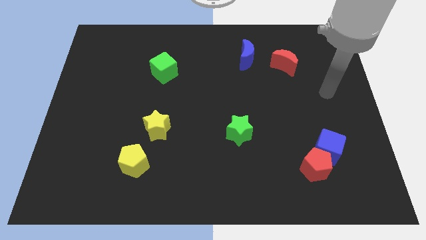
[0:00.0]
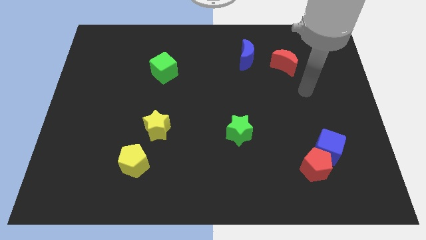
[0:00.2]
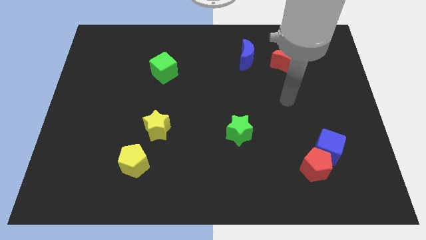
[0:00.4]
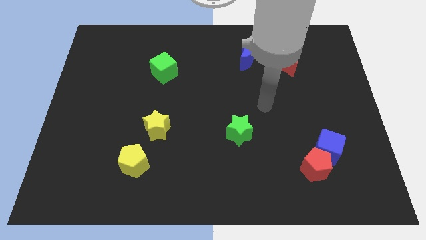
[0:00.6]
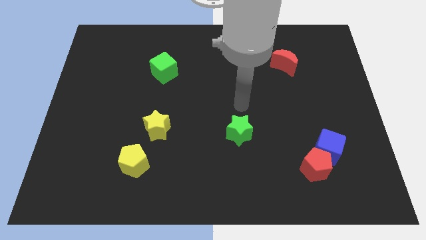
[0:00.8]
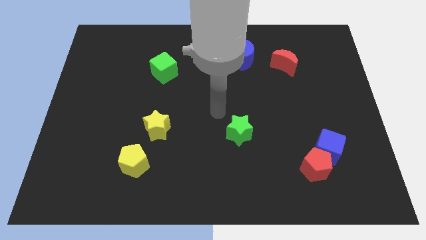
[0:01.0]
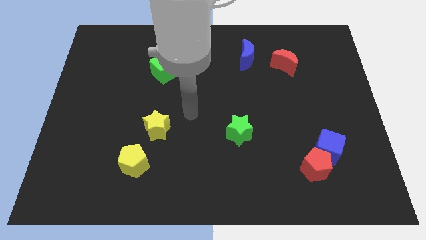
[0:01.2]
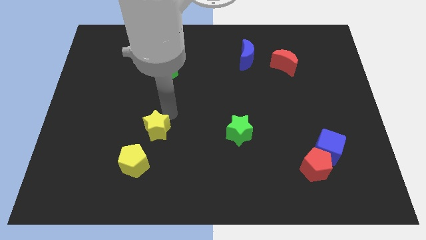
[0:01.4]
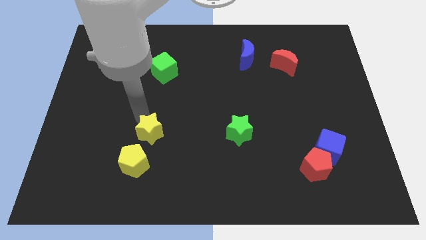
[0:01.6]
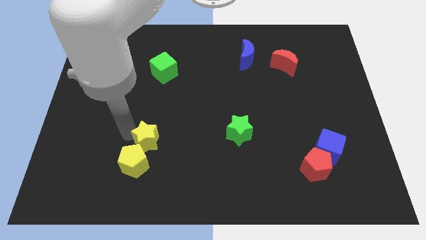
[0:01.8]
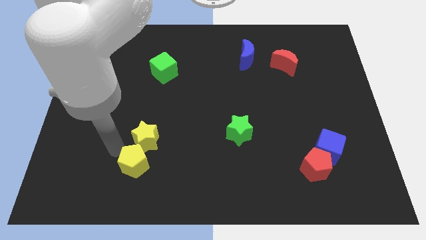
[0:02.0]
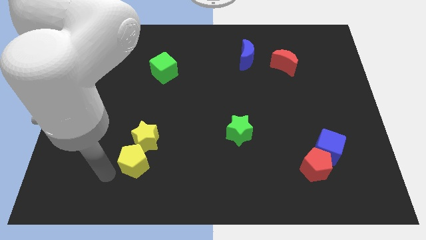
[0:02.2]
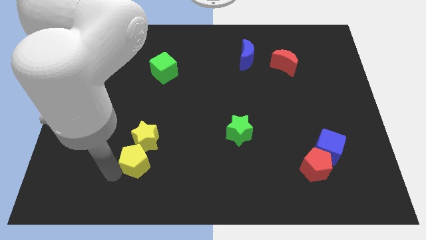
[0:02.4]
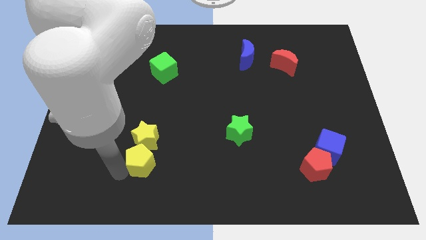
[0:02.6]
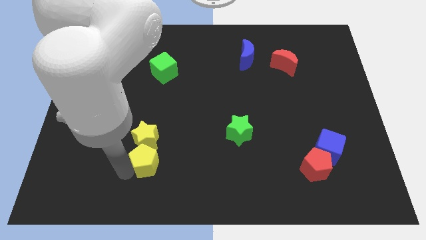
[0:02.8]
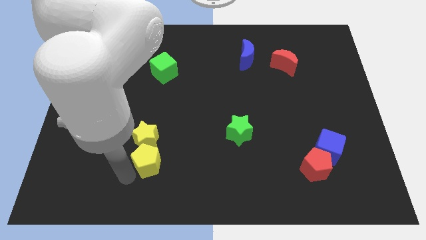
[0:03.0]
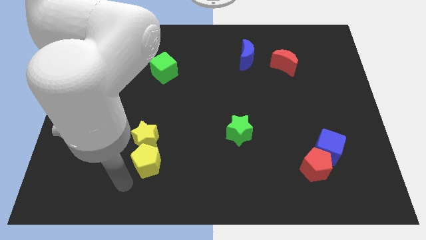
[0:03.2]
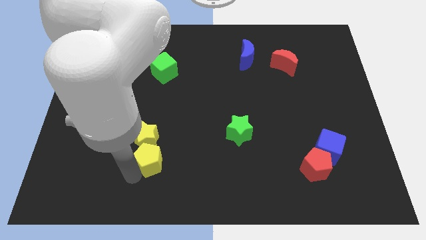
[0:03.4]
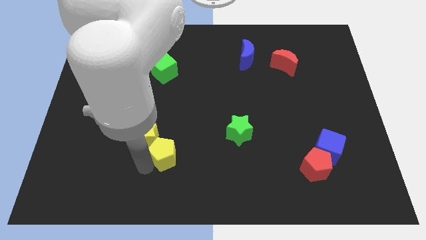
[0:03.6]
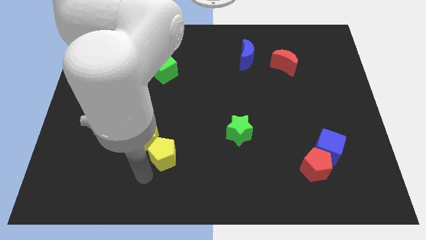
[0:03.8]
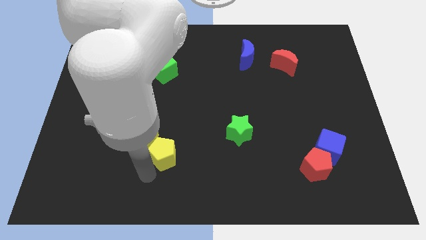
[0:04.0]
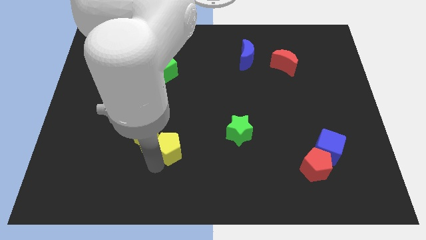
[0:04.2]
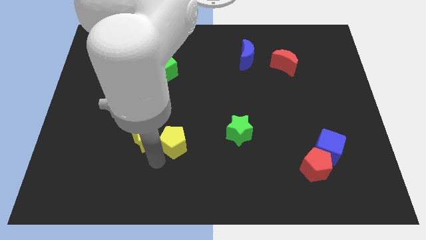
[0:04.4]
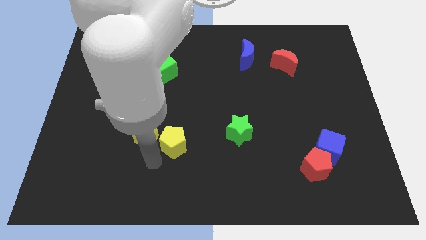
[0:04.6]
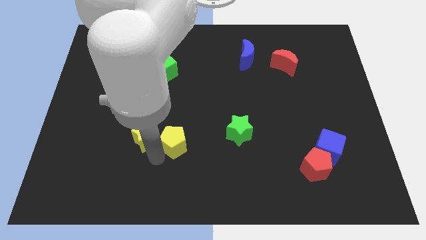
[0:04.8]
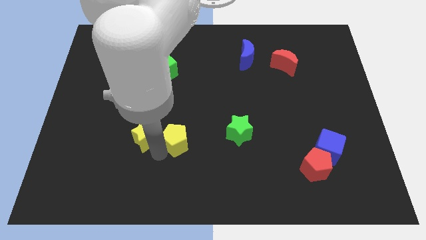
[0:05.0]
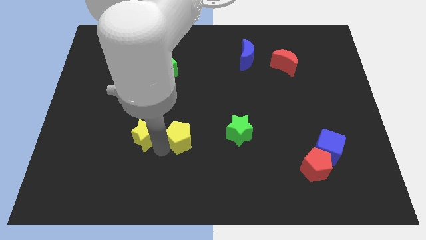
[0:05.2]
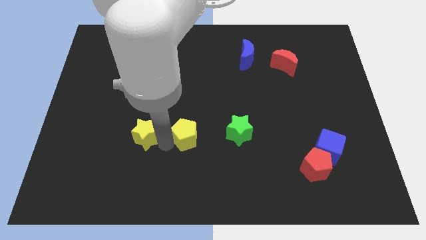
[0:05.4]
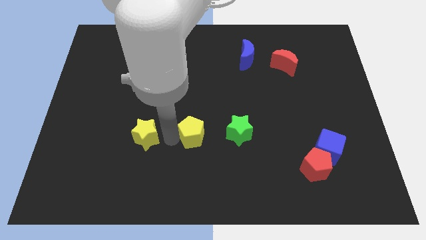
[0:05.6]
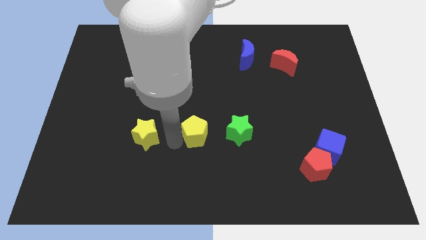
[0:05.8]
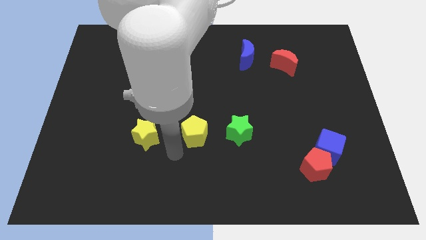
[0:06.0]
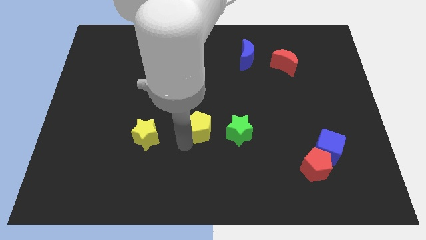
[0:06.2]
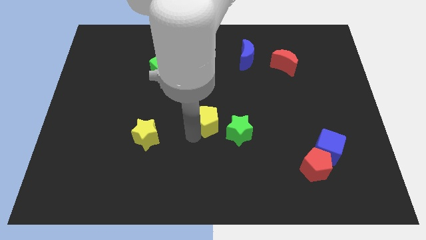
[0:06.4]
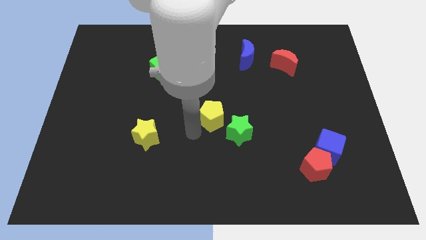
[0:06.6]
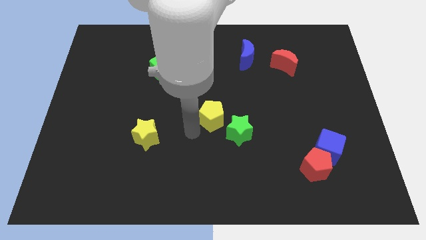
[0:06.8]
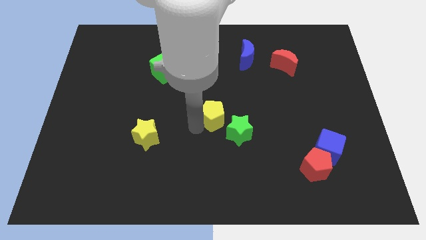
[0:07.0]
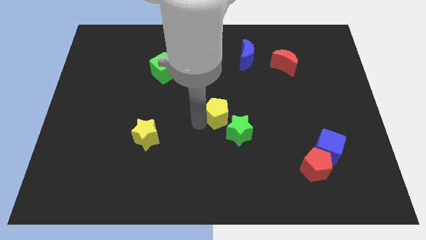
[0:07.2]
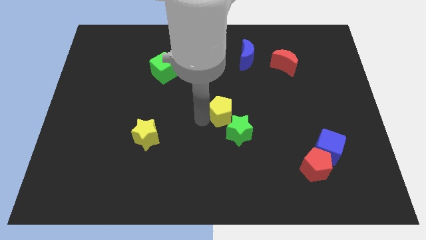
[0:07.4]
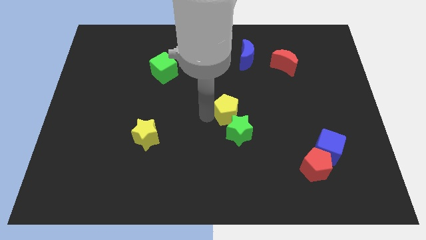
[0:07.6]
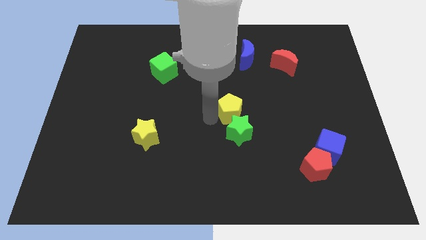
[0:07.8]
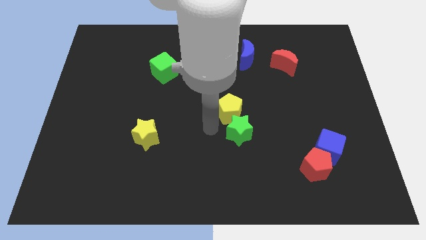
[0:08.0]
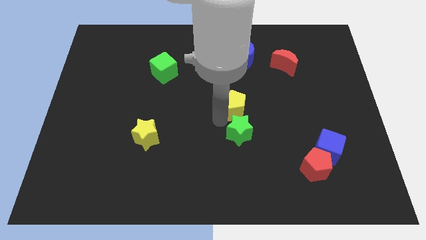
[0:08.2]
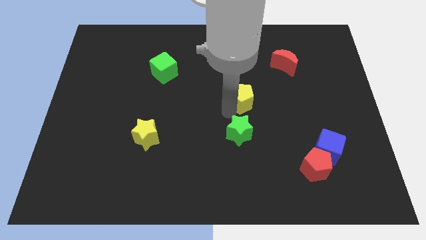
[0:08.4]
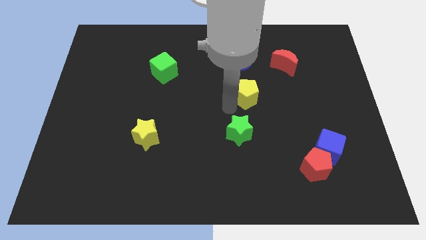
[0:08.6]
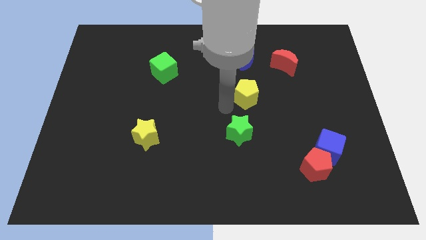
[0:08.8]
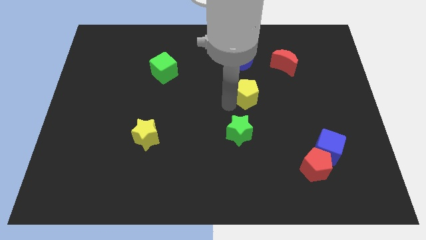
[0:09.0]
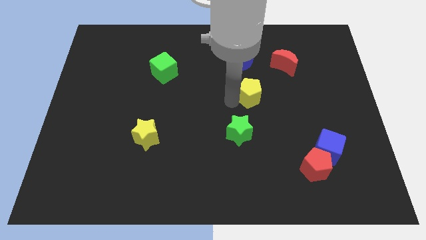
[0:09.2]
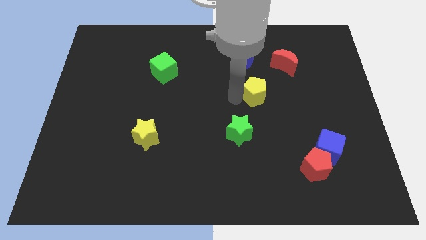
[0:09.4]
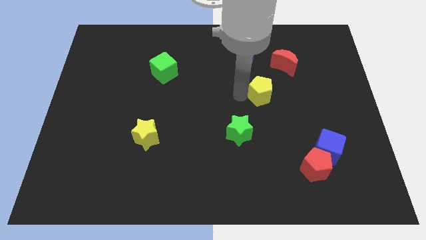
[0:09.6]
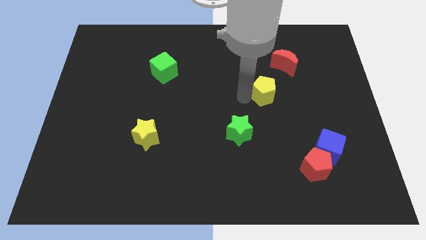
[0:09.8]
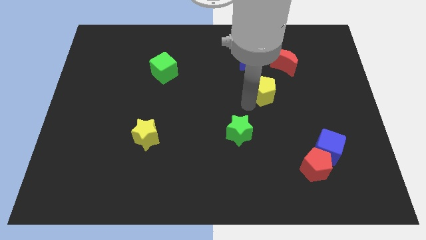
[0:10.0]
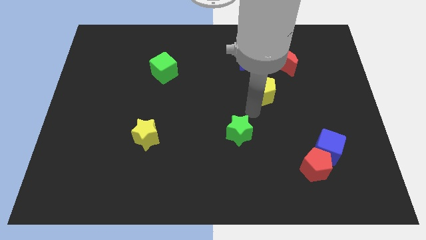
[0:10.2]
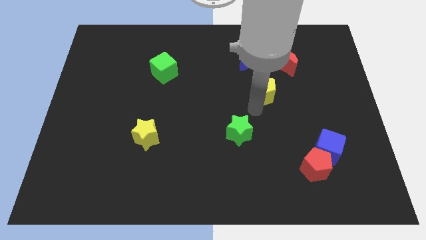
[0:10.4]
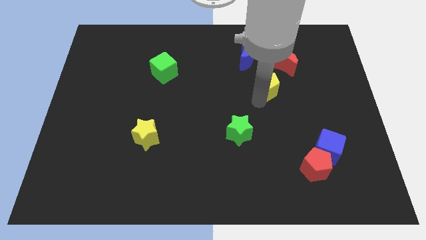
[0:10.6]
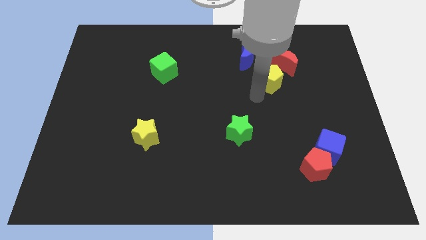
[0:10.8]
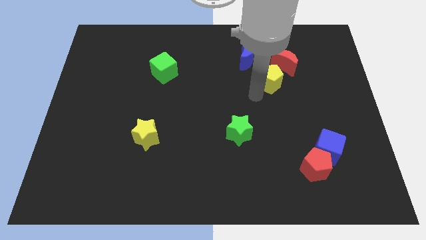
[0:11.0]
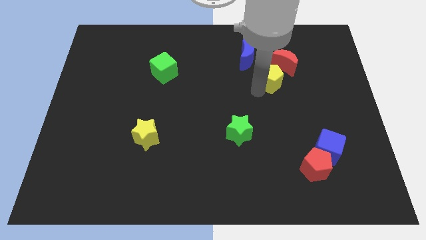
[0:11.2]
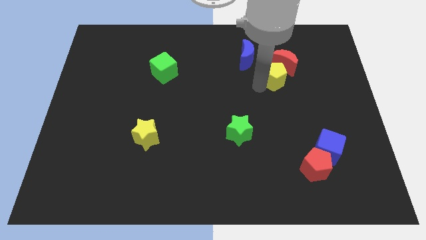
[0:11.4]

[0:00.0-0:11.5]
slide the yellow pentagon to the red moon

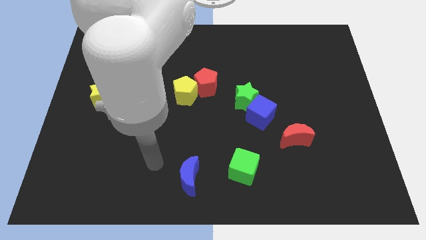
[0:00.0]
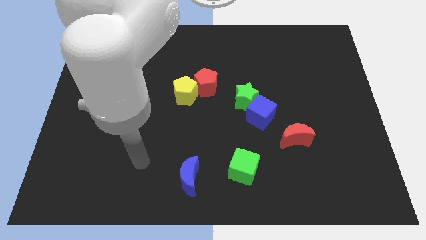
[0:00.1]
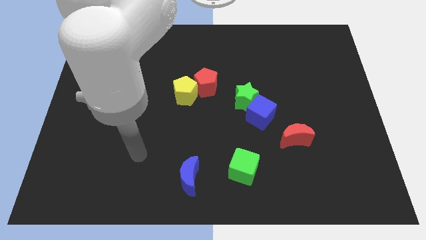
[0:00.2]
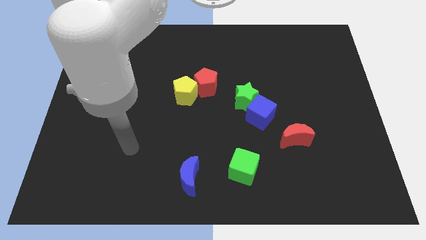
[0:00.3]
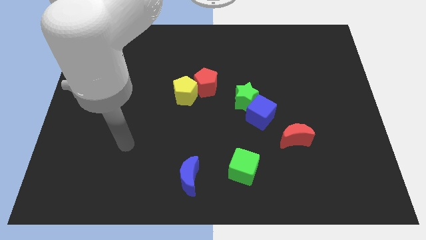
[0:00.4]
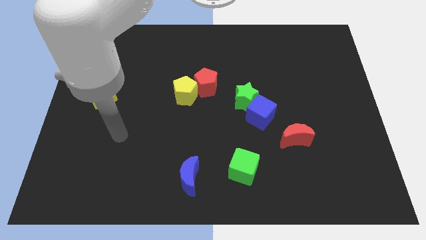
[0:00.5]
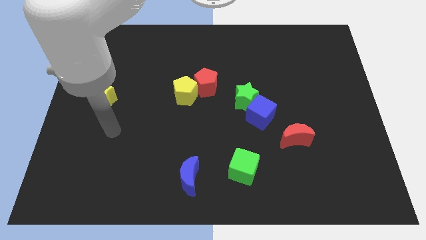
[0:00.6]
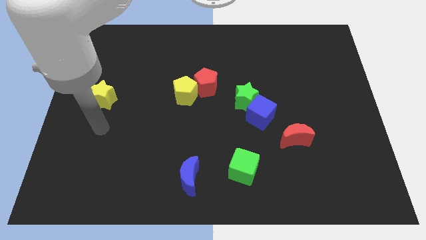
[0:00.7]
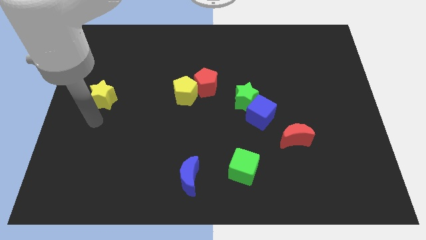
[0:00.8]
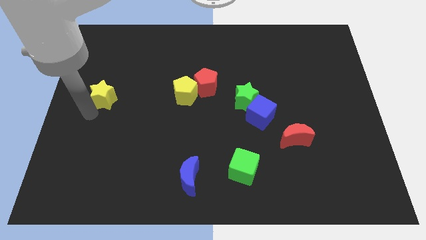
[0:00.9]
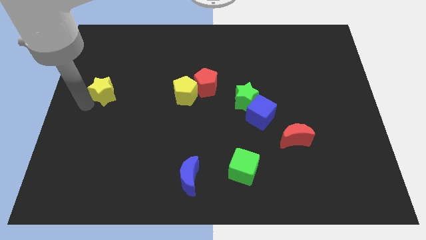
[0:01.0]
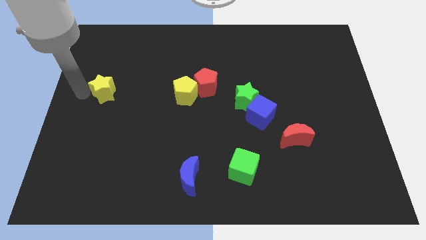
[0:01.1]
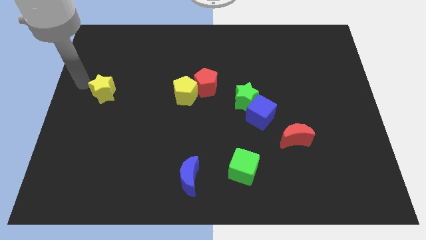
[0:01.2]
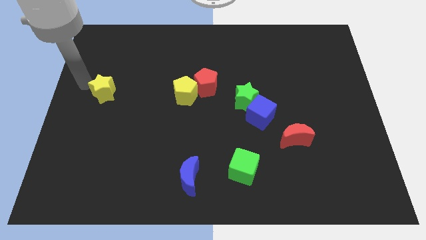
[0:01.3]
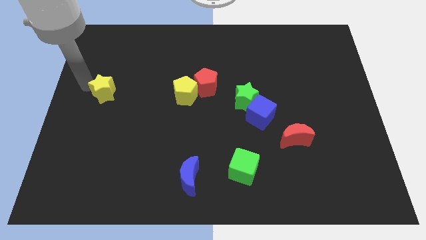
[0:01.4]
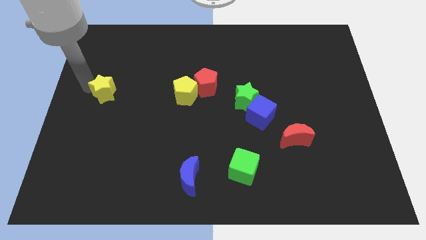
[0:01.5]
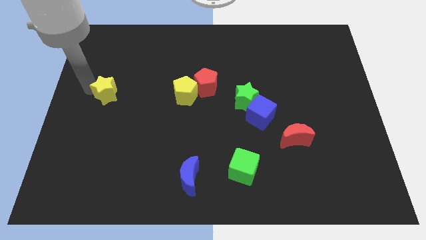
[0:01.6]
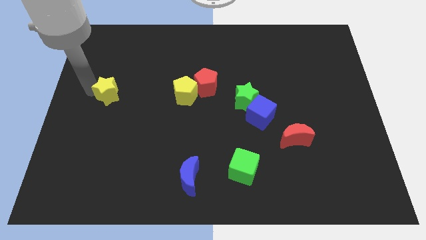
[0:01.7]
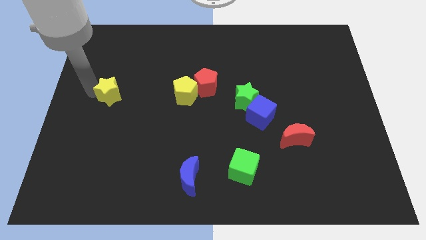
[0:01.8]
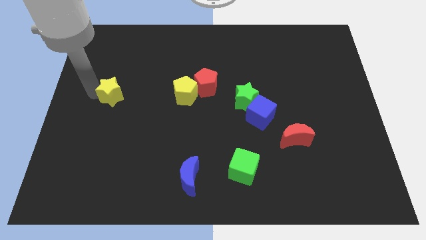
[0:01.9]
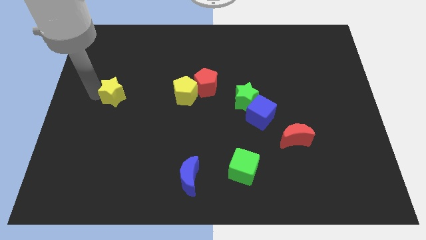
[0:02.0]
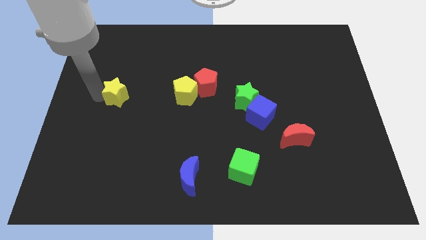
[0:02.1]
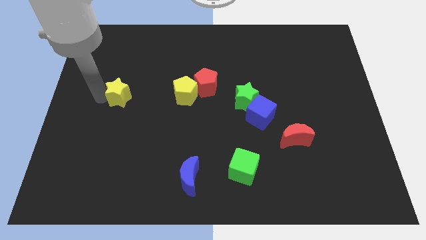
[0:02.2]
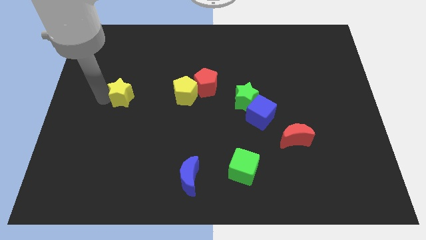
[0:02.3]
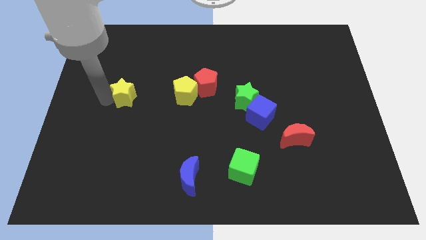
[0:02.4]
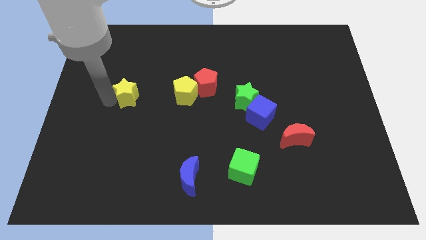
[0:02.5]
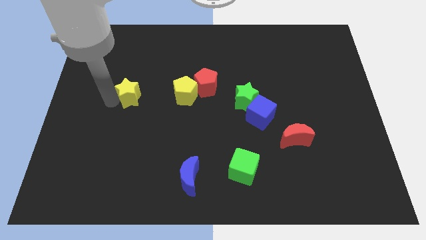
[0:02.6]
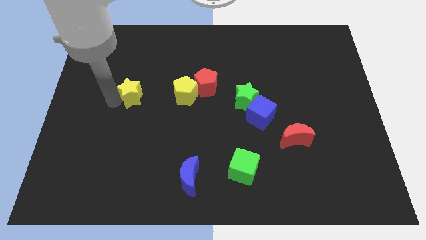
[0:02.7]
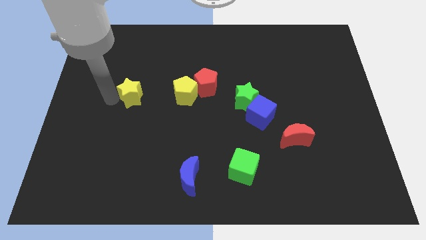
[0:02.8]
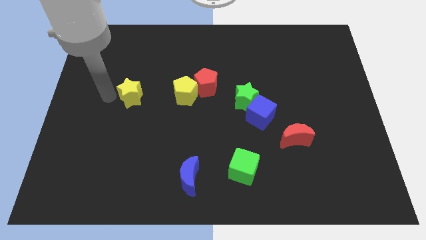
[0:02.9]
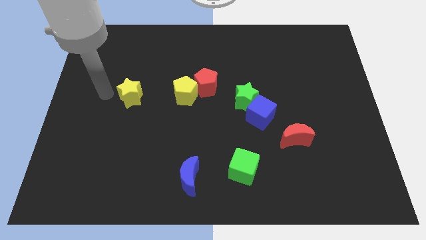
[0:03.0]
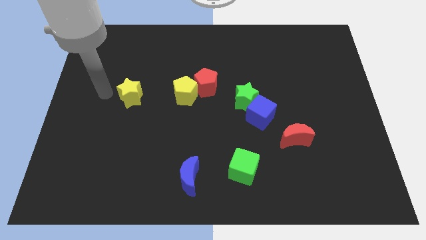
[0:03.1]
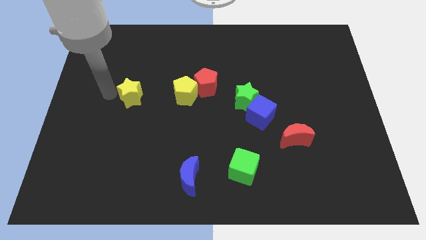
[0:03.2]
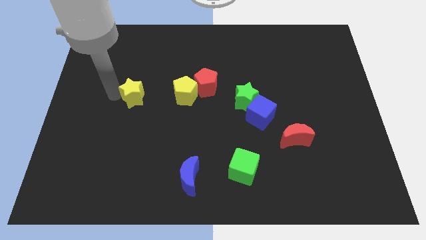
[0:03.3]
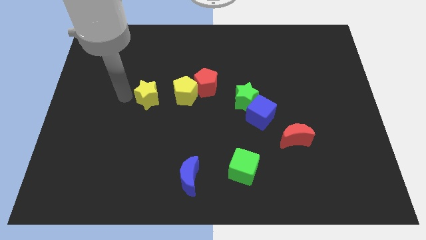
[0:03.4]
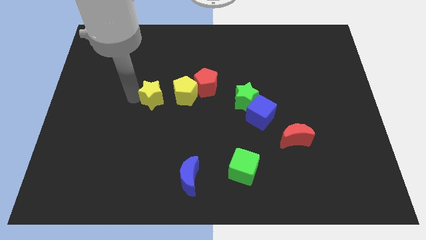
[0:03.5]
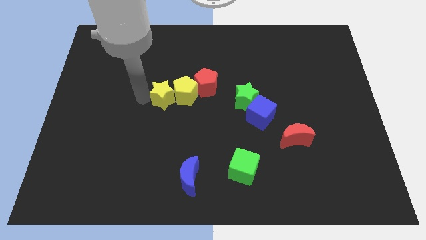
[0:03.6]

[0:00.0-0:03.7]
move the yellow star to the yellow pentagon
